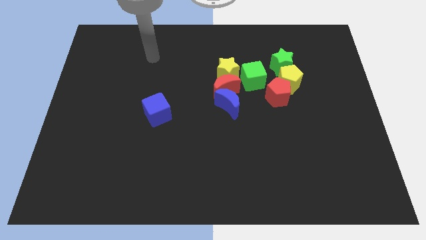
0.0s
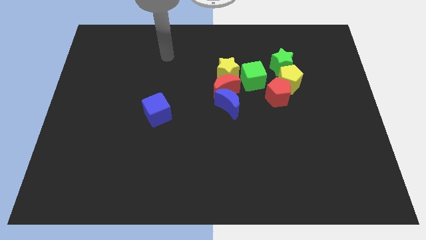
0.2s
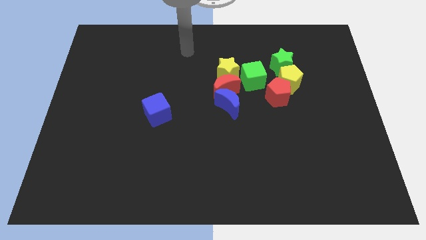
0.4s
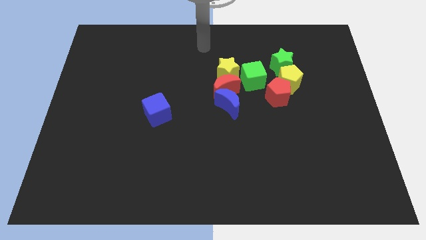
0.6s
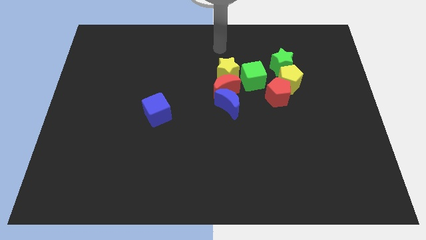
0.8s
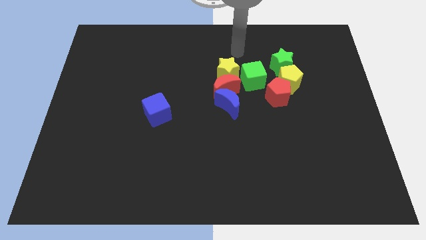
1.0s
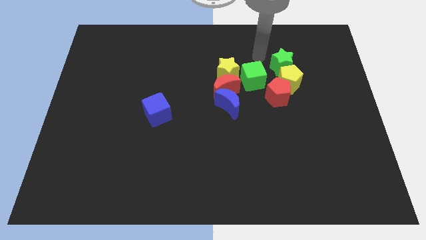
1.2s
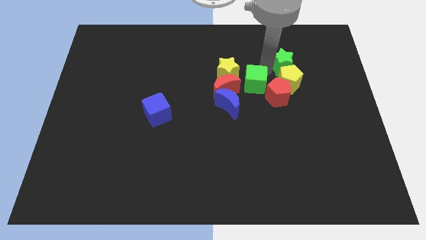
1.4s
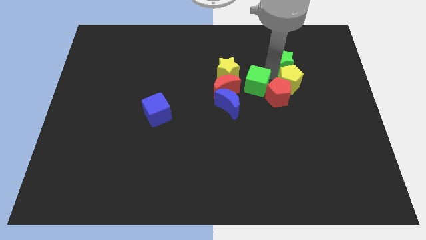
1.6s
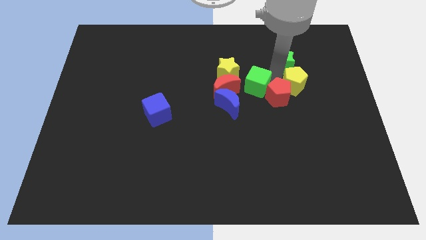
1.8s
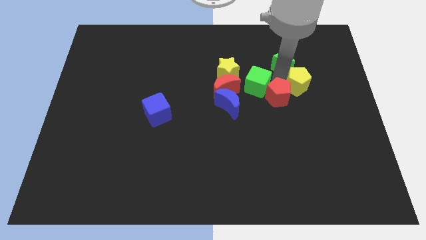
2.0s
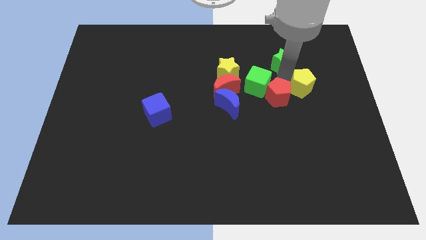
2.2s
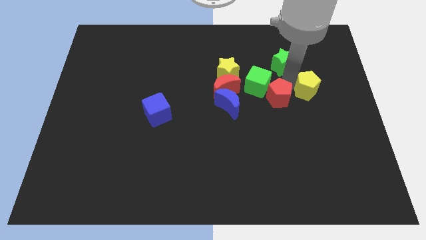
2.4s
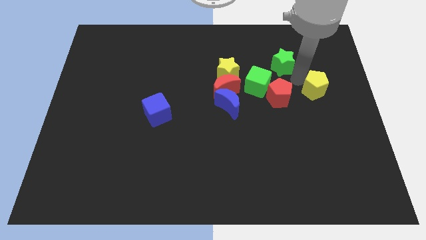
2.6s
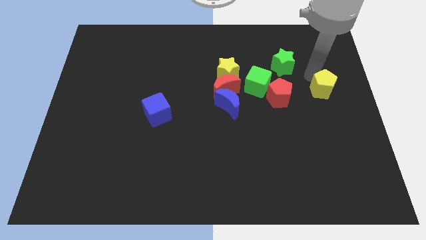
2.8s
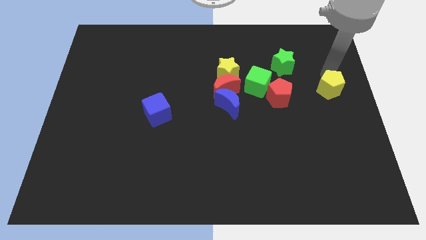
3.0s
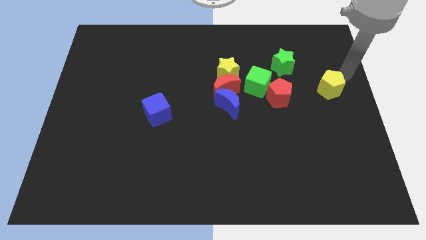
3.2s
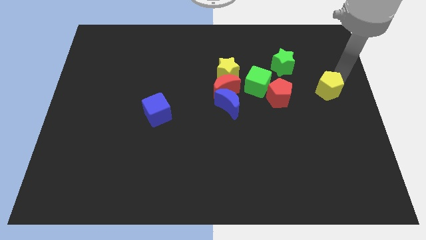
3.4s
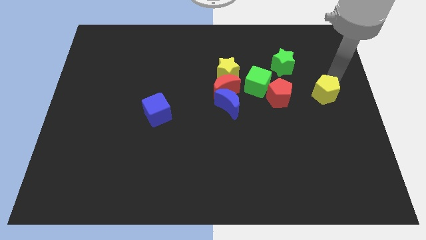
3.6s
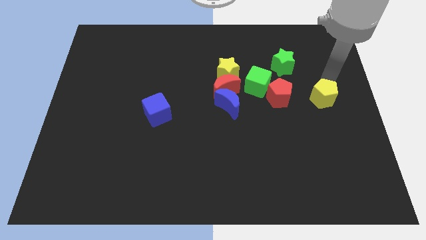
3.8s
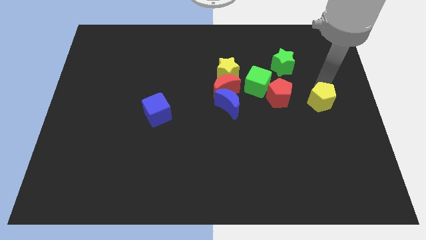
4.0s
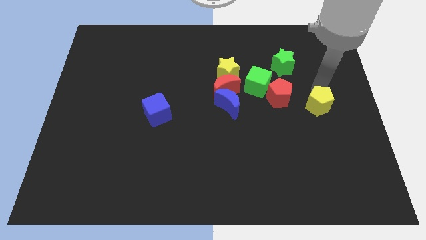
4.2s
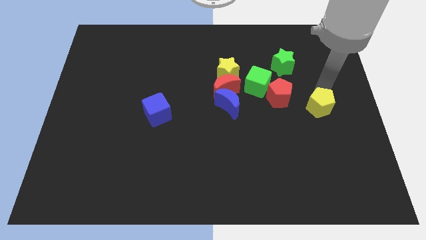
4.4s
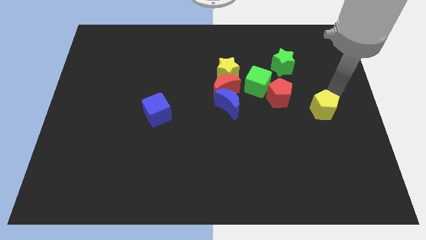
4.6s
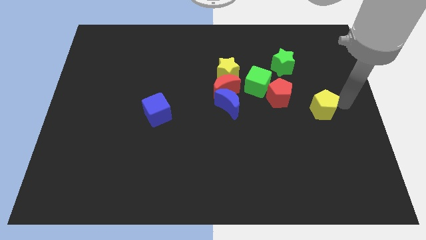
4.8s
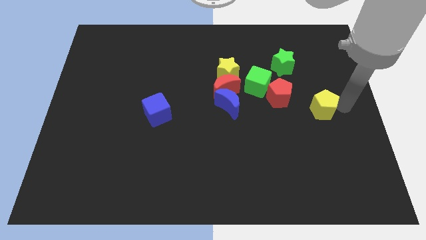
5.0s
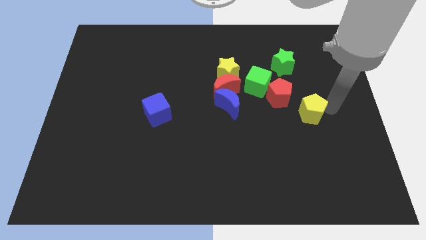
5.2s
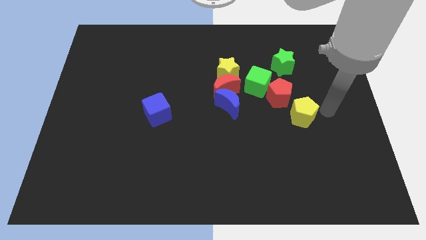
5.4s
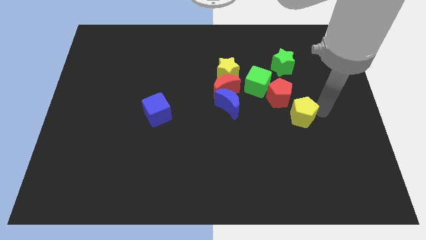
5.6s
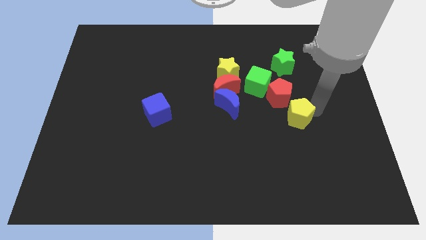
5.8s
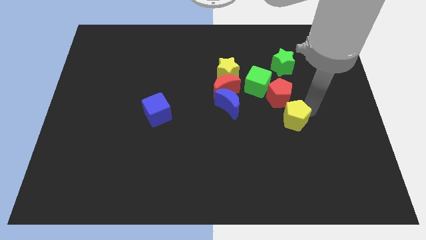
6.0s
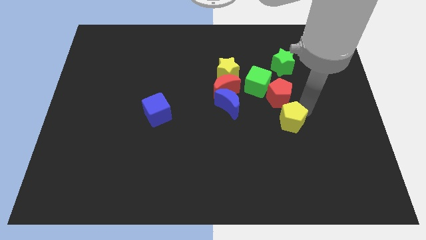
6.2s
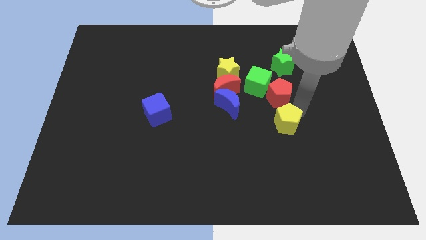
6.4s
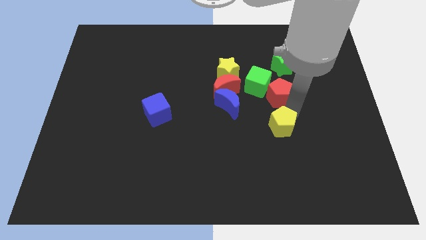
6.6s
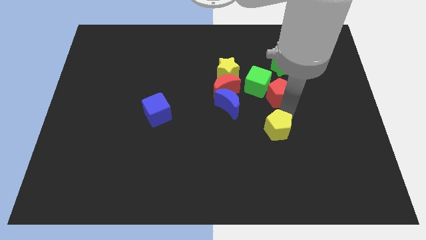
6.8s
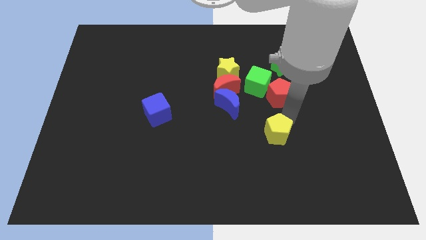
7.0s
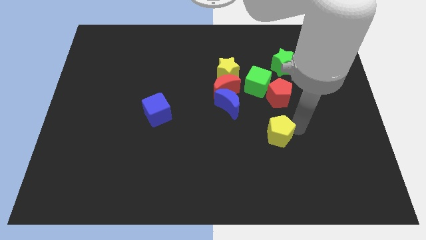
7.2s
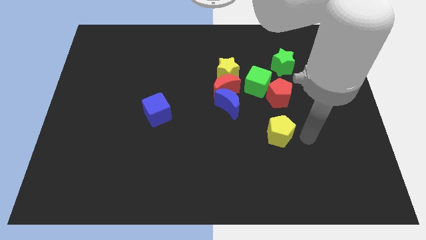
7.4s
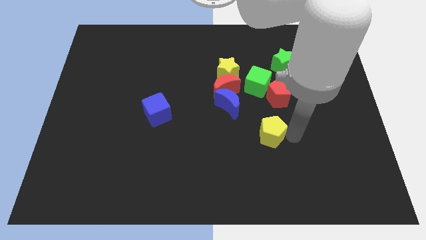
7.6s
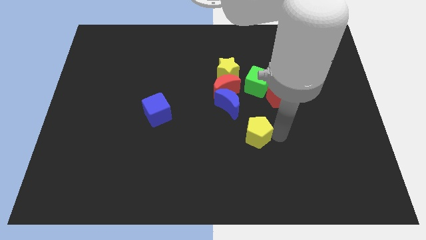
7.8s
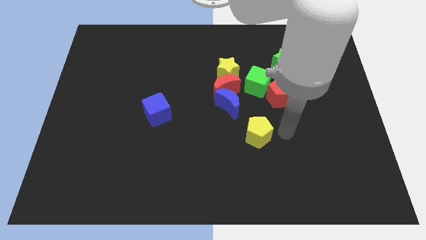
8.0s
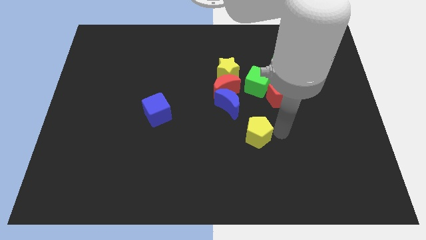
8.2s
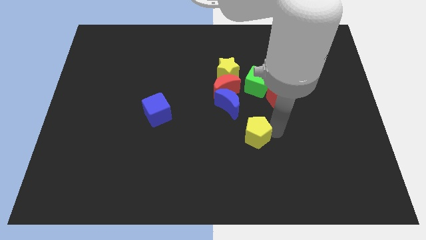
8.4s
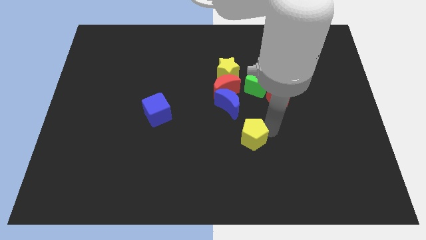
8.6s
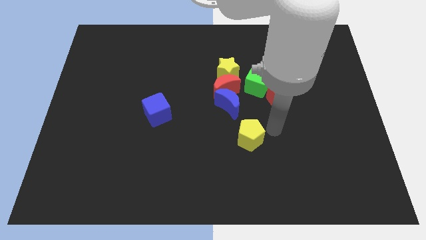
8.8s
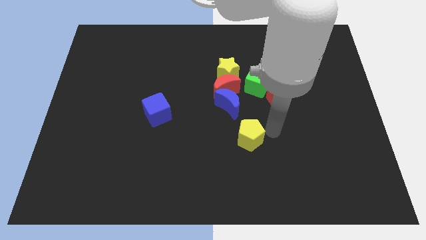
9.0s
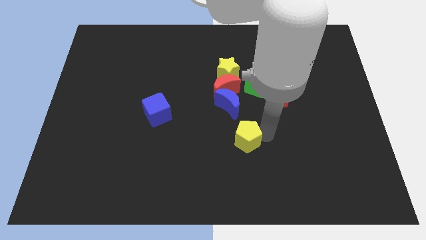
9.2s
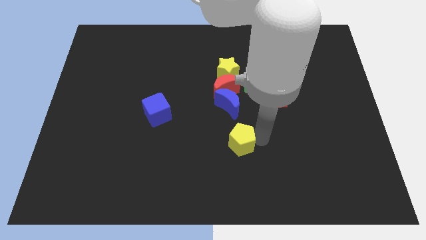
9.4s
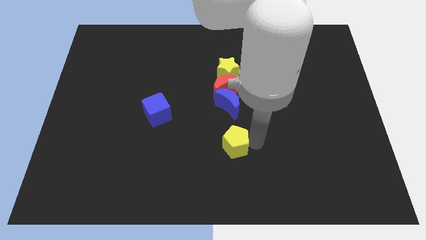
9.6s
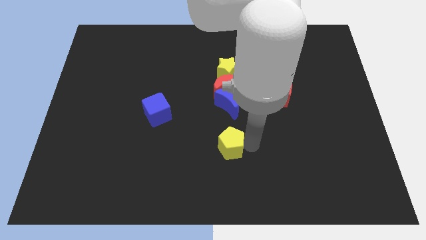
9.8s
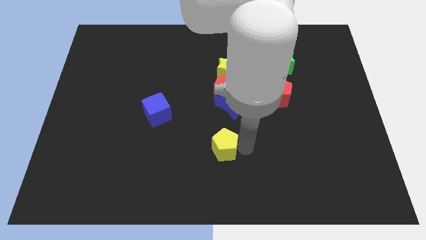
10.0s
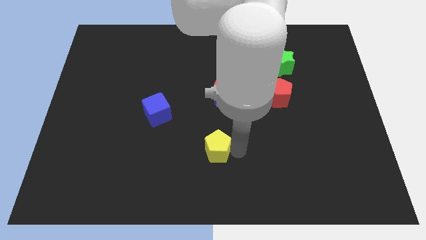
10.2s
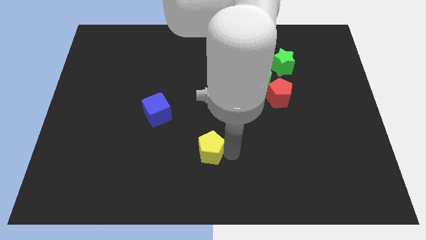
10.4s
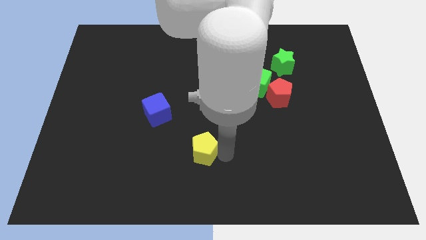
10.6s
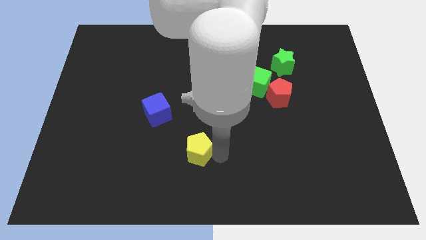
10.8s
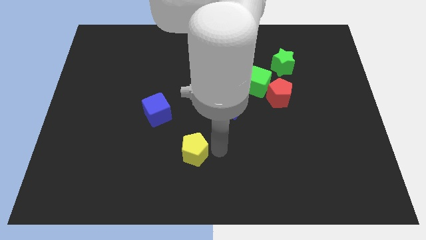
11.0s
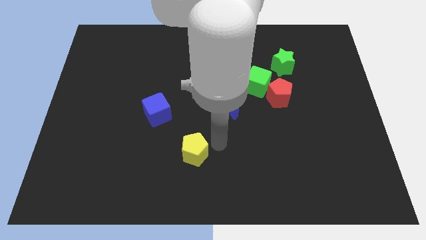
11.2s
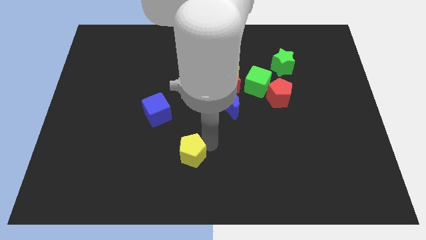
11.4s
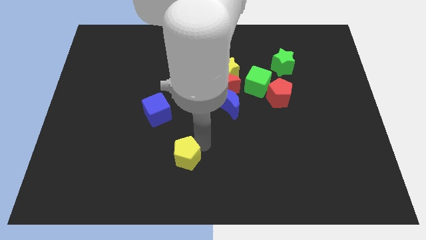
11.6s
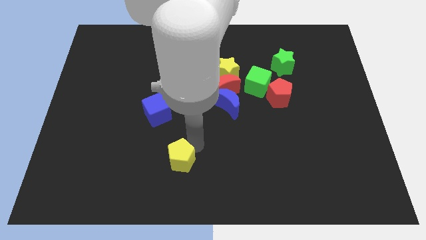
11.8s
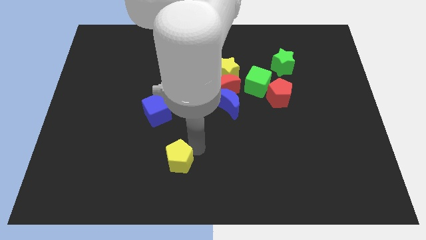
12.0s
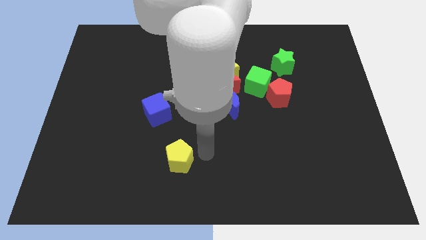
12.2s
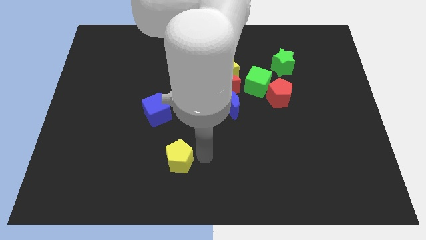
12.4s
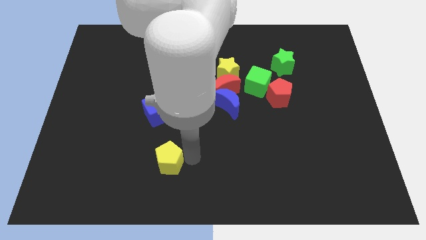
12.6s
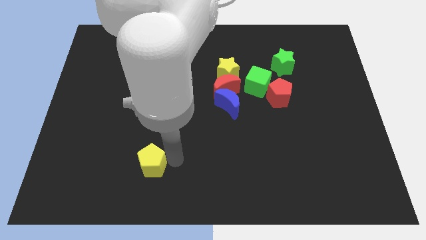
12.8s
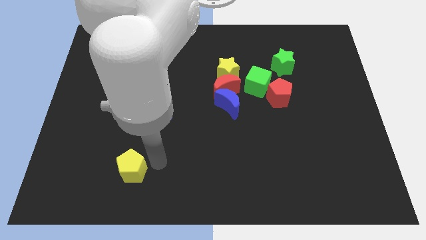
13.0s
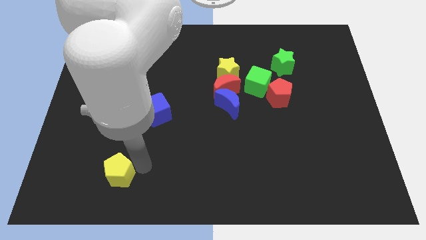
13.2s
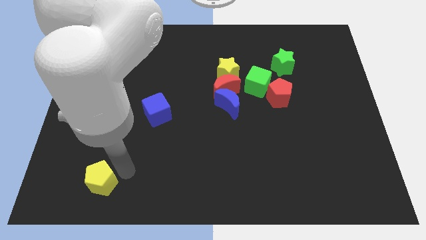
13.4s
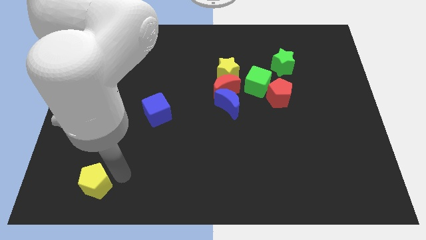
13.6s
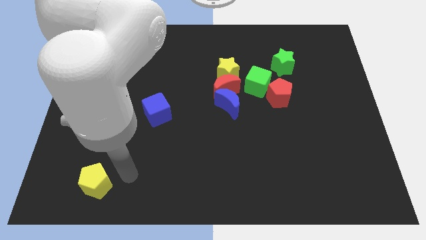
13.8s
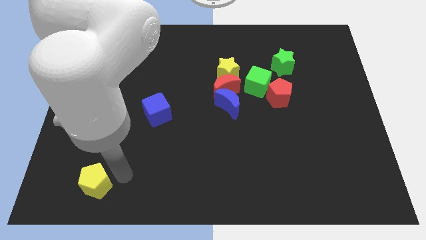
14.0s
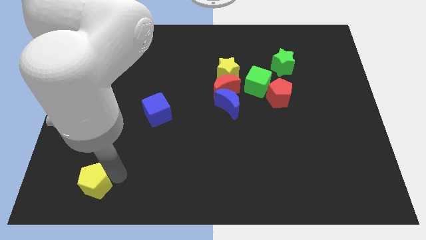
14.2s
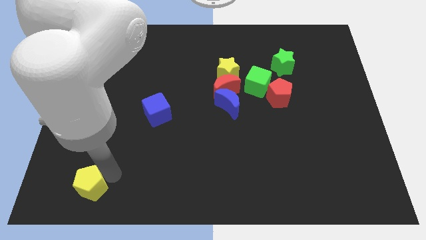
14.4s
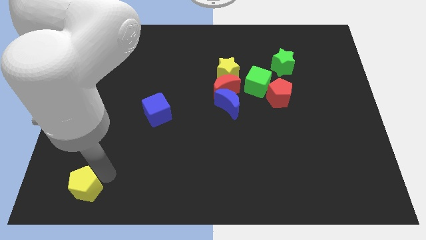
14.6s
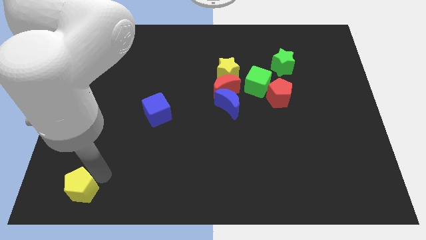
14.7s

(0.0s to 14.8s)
push the yellow pentagon to the bottom left corner
